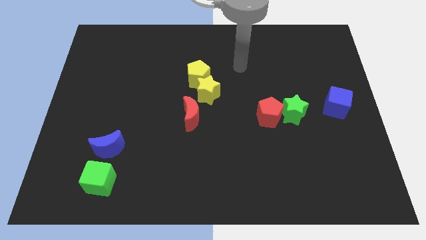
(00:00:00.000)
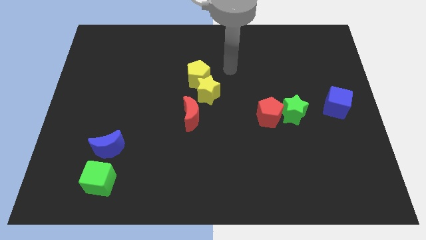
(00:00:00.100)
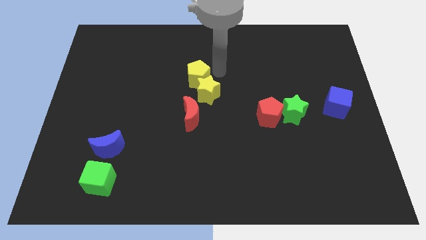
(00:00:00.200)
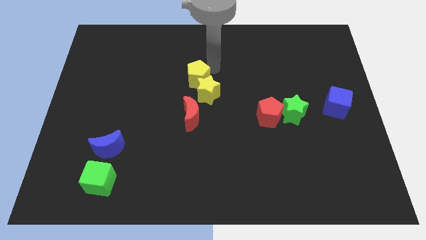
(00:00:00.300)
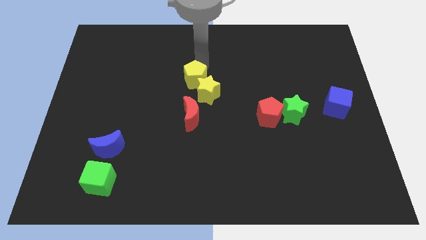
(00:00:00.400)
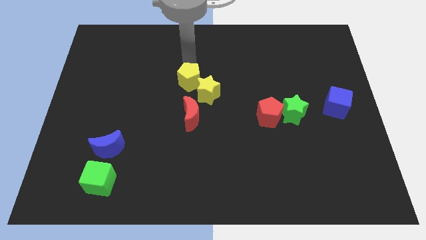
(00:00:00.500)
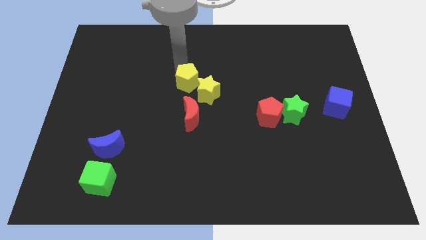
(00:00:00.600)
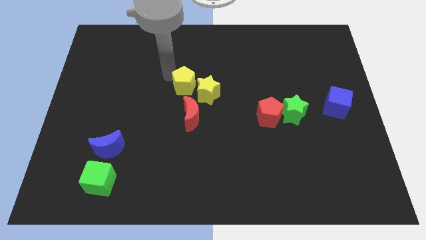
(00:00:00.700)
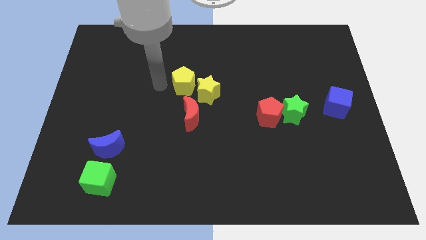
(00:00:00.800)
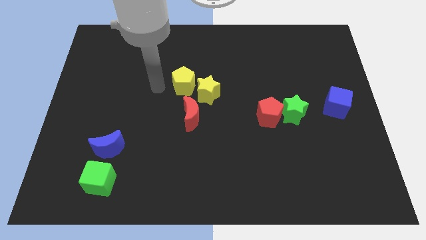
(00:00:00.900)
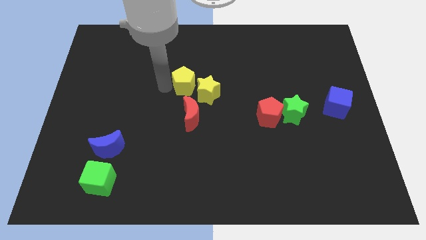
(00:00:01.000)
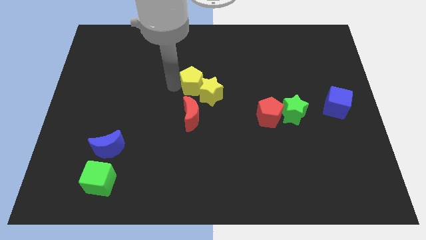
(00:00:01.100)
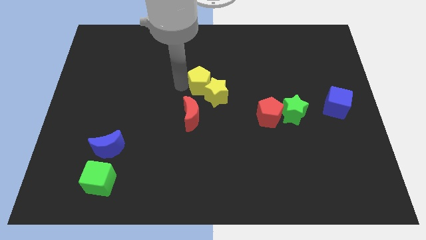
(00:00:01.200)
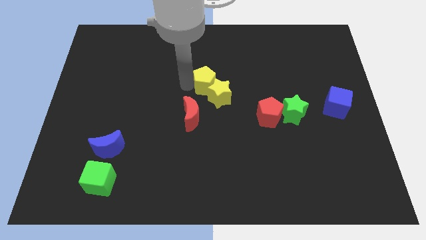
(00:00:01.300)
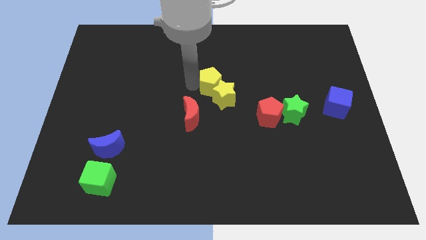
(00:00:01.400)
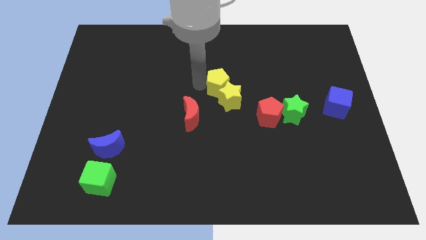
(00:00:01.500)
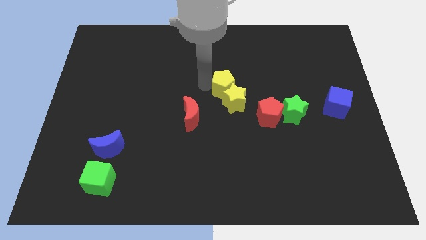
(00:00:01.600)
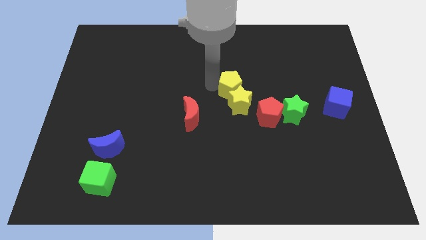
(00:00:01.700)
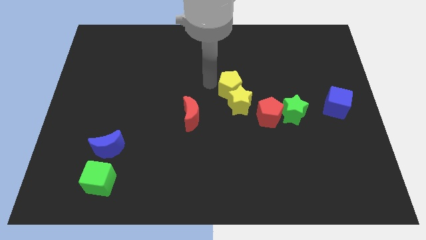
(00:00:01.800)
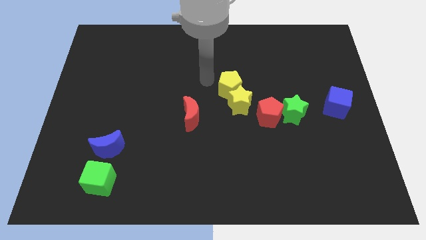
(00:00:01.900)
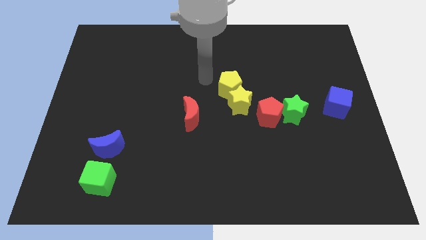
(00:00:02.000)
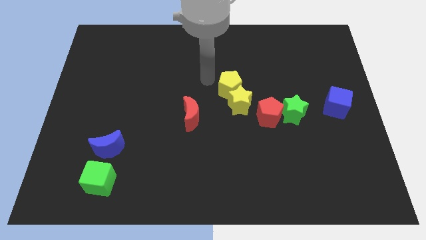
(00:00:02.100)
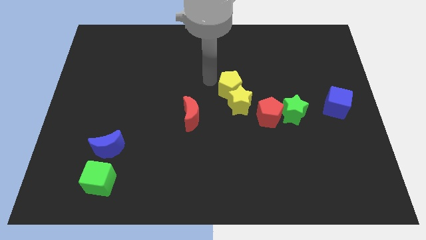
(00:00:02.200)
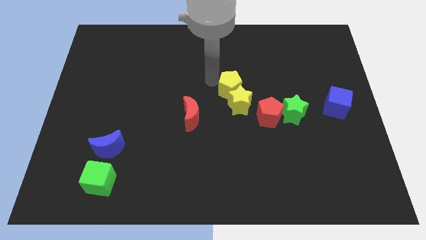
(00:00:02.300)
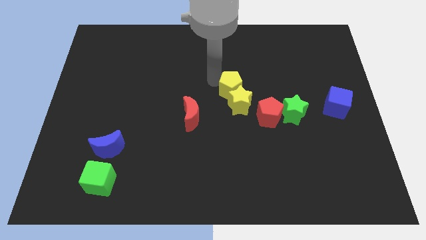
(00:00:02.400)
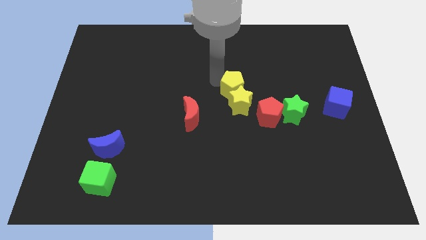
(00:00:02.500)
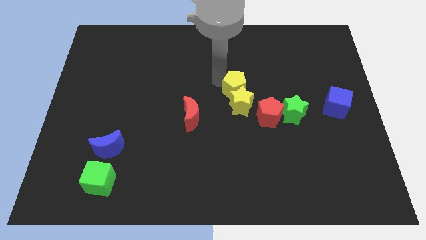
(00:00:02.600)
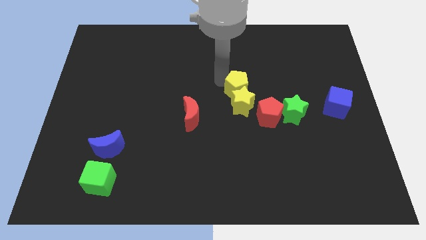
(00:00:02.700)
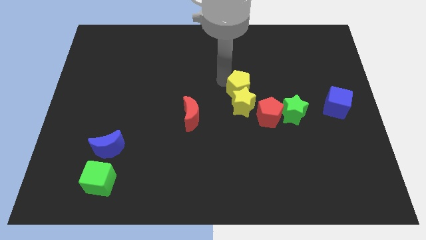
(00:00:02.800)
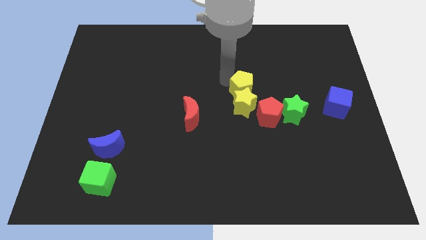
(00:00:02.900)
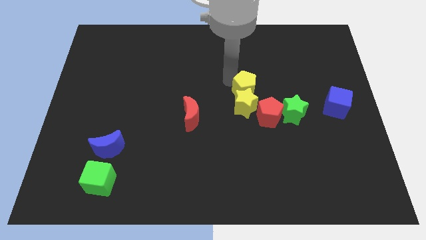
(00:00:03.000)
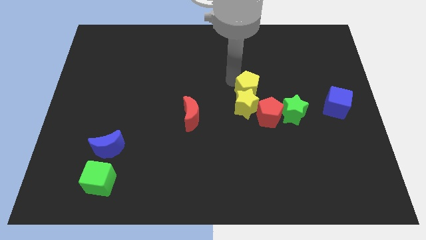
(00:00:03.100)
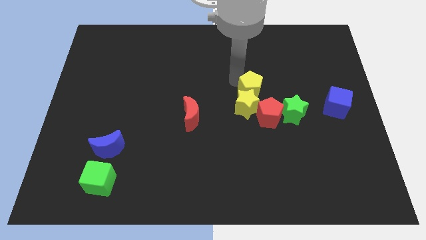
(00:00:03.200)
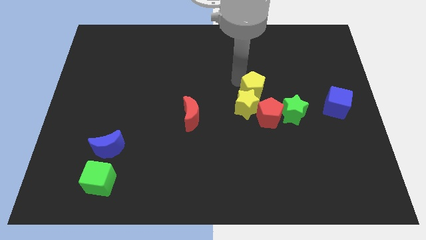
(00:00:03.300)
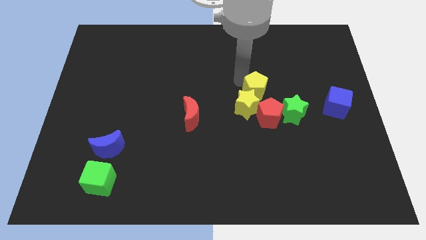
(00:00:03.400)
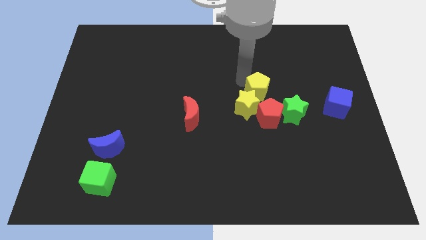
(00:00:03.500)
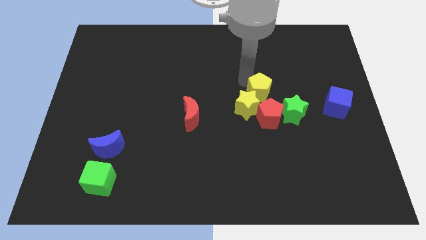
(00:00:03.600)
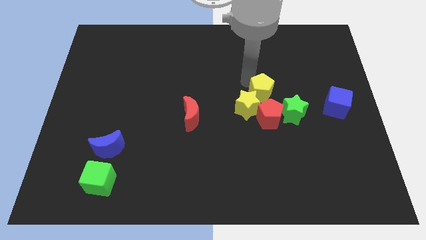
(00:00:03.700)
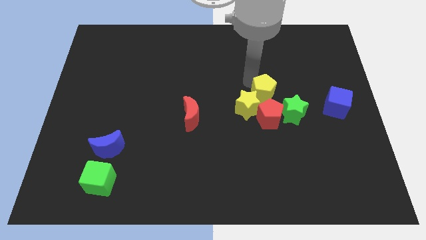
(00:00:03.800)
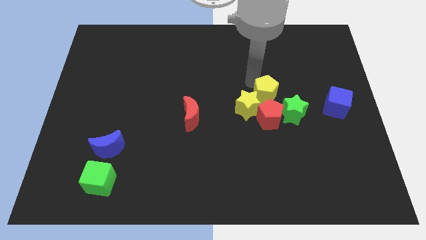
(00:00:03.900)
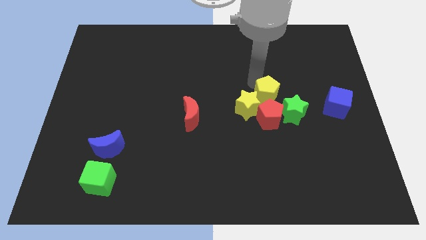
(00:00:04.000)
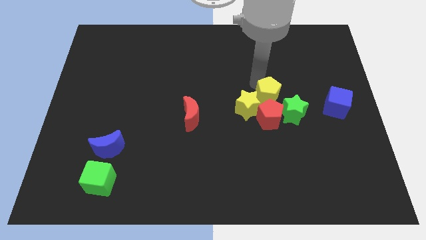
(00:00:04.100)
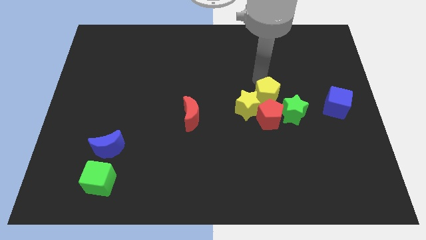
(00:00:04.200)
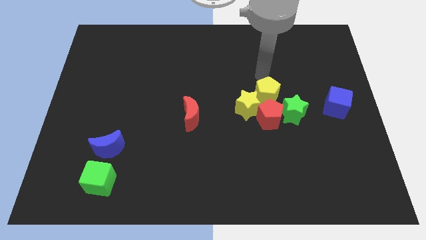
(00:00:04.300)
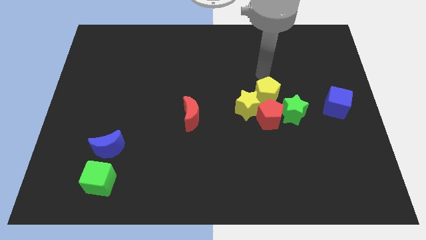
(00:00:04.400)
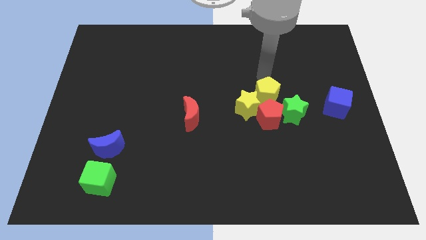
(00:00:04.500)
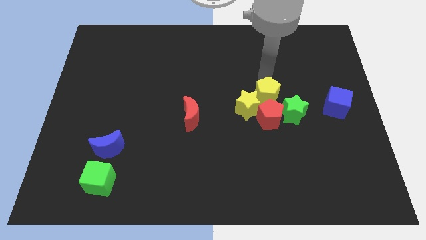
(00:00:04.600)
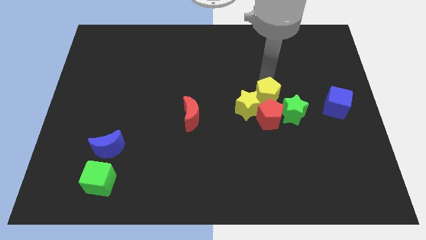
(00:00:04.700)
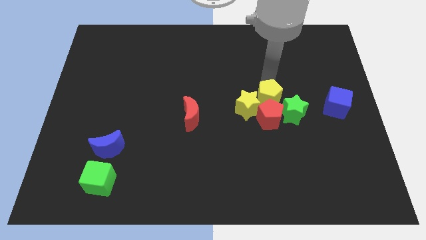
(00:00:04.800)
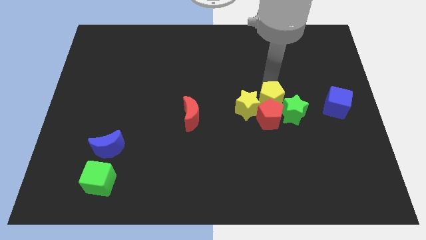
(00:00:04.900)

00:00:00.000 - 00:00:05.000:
put the yellow pentagon next to the red pentagon

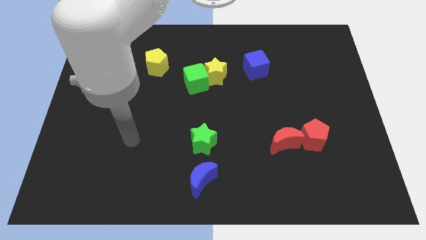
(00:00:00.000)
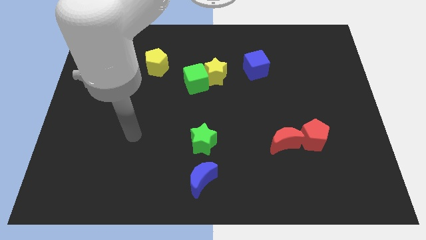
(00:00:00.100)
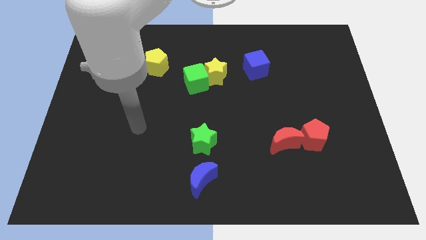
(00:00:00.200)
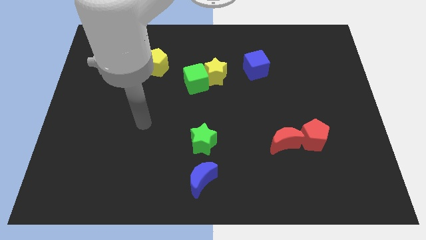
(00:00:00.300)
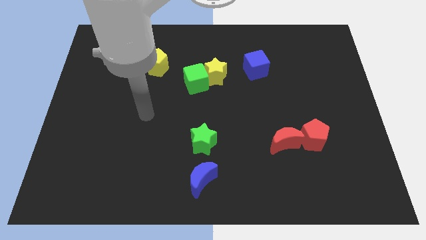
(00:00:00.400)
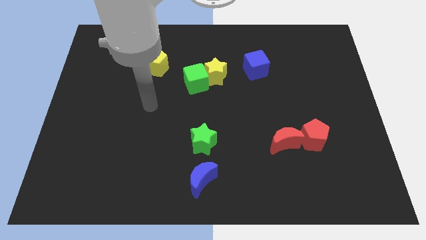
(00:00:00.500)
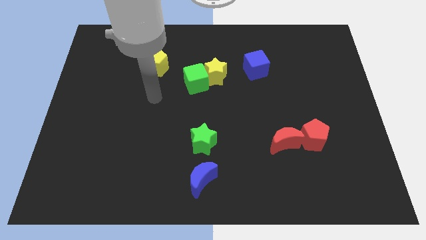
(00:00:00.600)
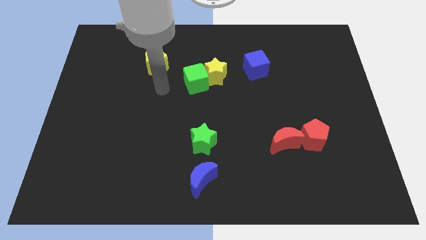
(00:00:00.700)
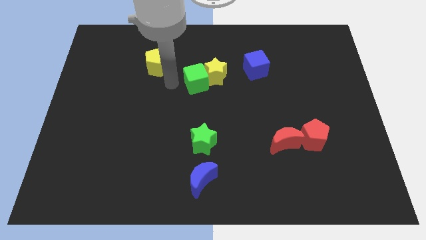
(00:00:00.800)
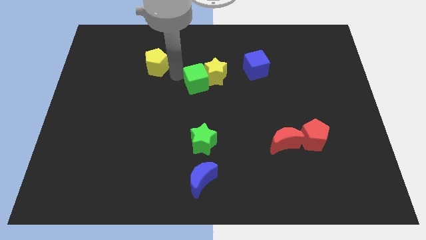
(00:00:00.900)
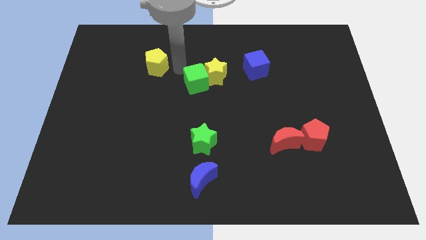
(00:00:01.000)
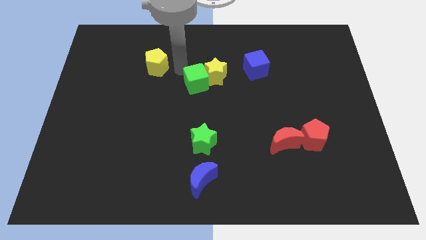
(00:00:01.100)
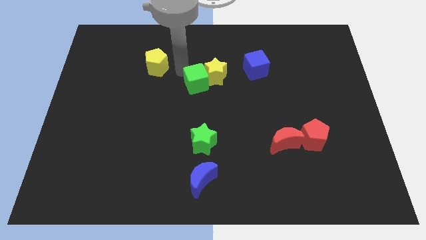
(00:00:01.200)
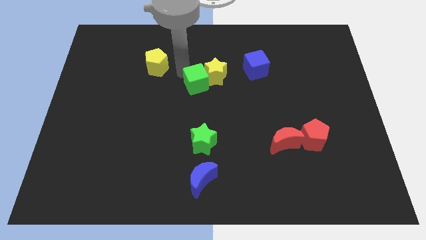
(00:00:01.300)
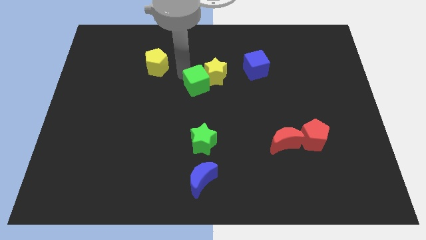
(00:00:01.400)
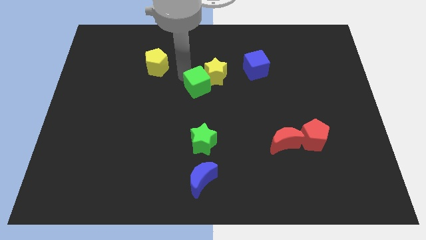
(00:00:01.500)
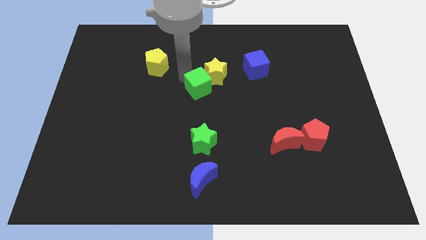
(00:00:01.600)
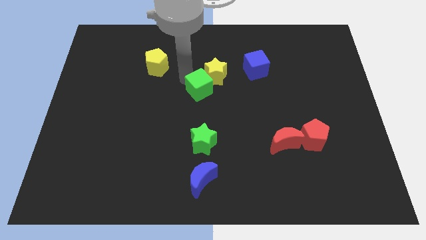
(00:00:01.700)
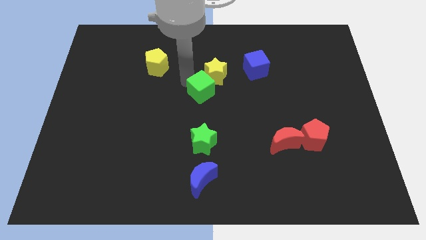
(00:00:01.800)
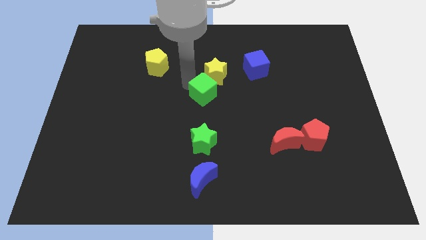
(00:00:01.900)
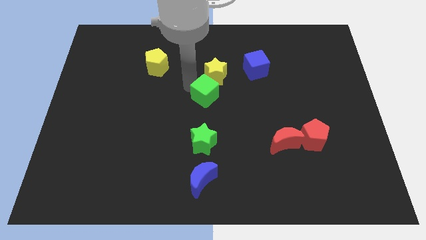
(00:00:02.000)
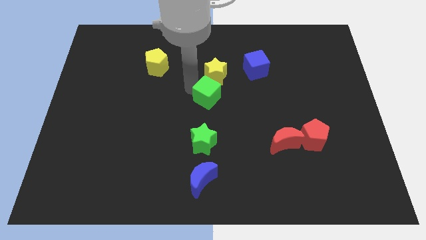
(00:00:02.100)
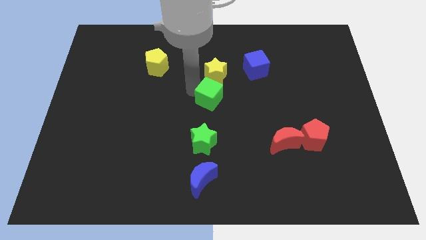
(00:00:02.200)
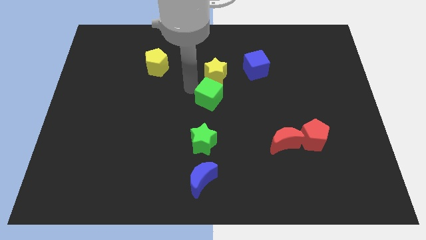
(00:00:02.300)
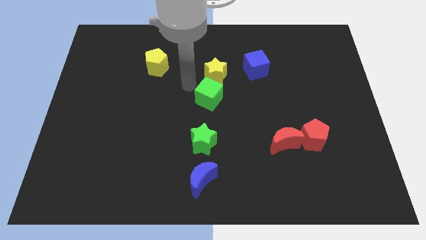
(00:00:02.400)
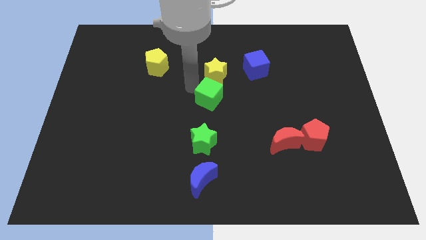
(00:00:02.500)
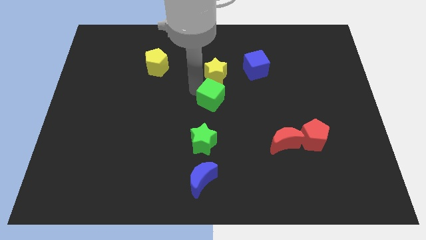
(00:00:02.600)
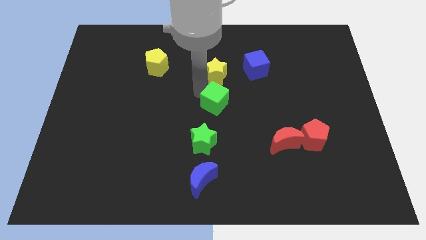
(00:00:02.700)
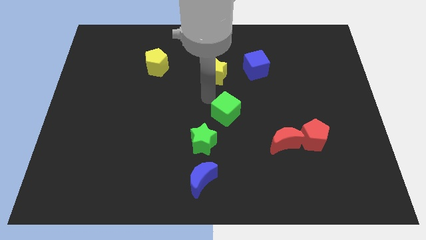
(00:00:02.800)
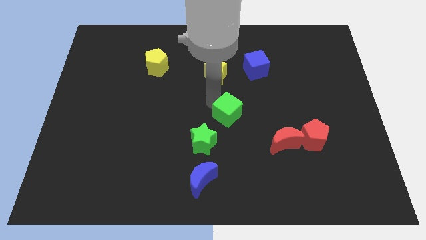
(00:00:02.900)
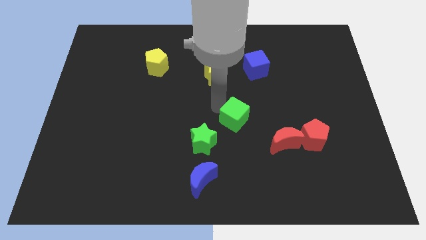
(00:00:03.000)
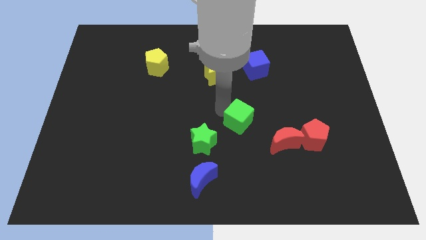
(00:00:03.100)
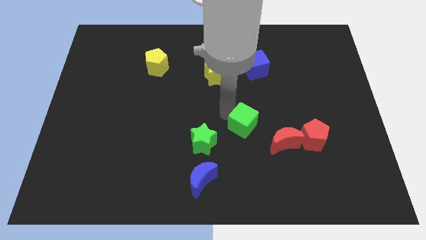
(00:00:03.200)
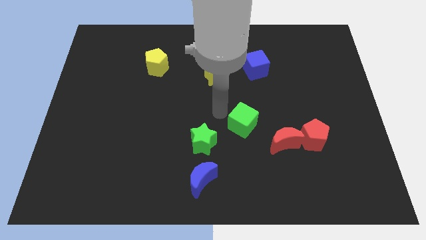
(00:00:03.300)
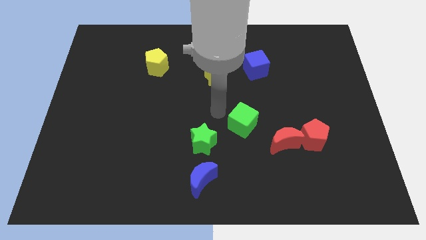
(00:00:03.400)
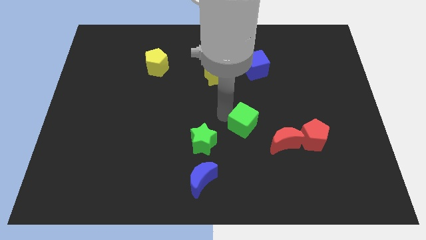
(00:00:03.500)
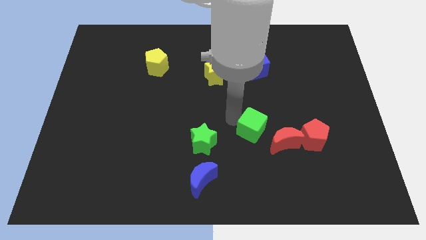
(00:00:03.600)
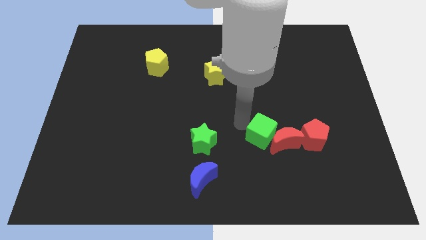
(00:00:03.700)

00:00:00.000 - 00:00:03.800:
move the green cube to the red moon
